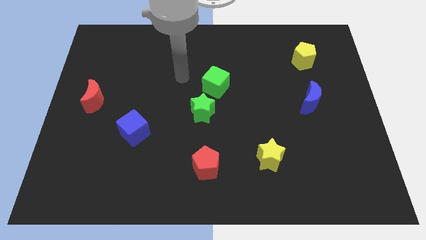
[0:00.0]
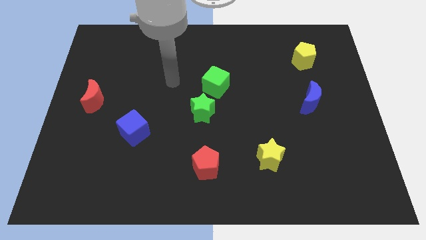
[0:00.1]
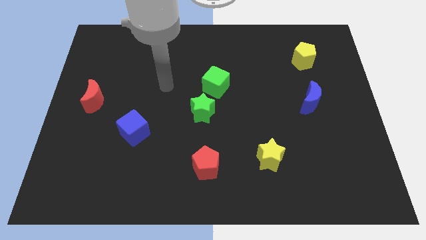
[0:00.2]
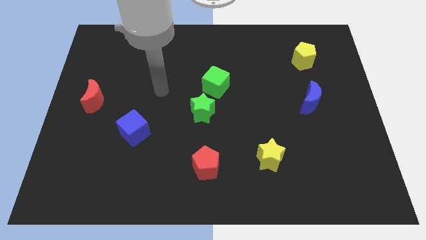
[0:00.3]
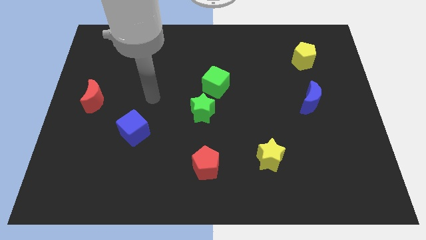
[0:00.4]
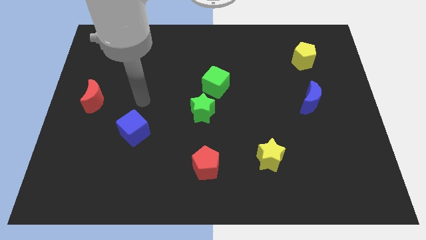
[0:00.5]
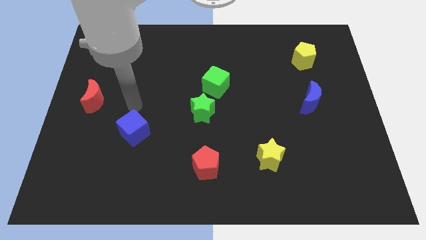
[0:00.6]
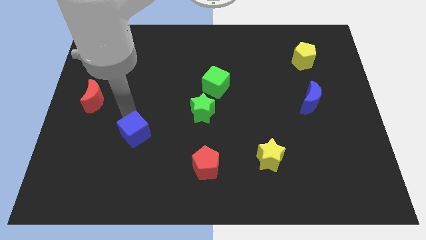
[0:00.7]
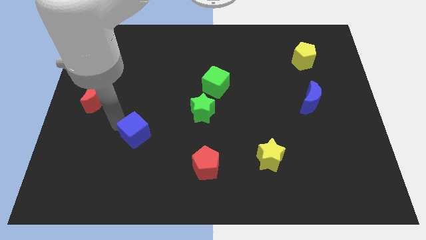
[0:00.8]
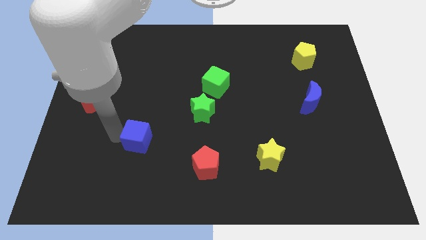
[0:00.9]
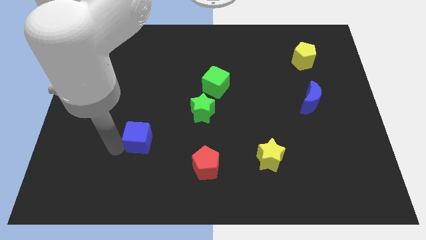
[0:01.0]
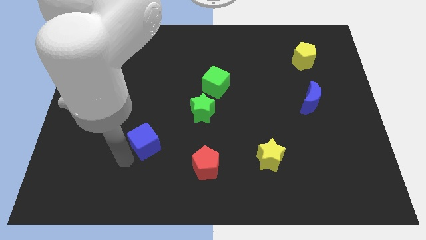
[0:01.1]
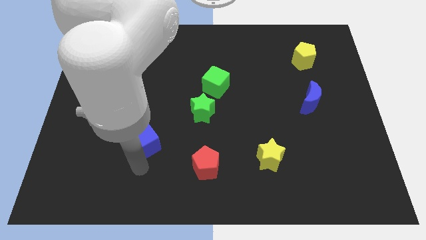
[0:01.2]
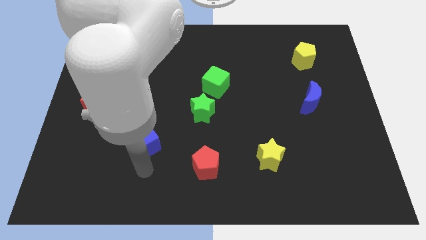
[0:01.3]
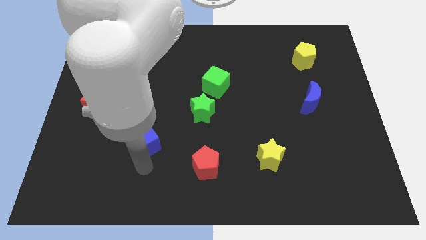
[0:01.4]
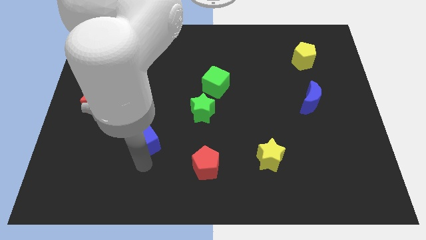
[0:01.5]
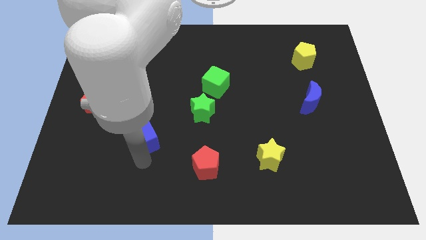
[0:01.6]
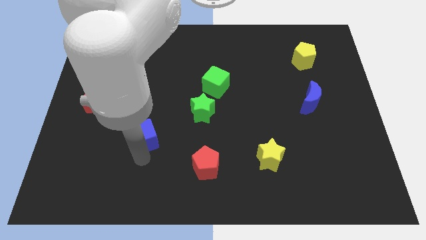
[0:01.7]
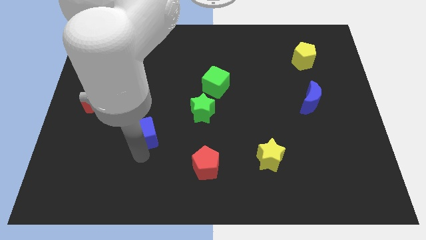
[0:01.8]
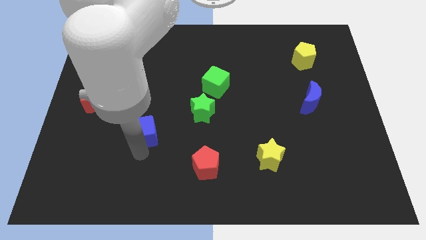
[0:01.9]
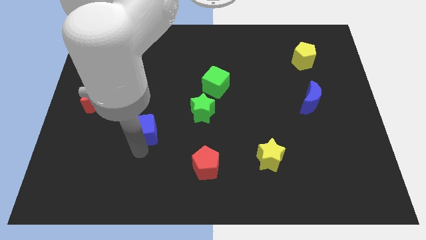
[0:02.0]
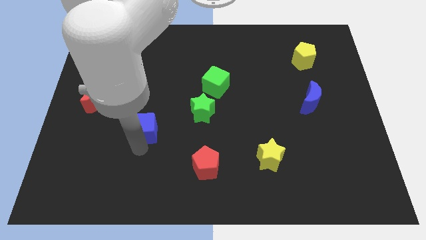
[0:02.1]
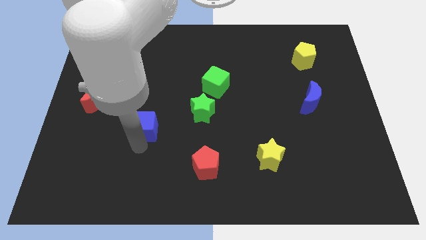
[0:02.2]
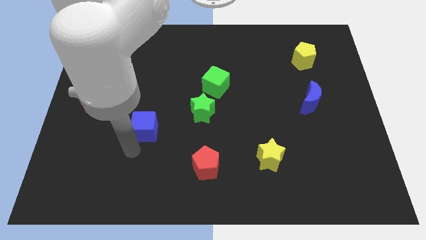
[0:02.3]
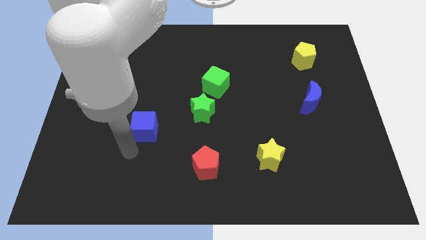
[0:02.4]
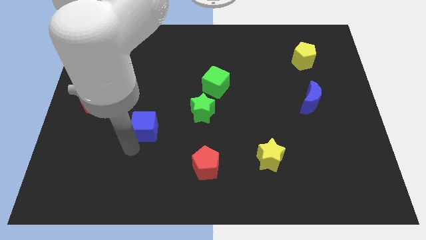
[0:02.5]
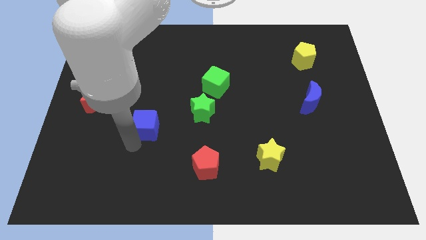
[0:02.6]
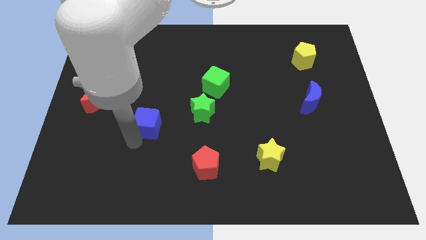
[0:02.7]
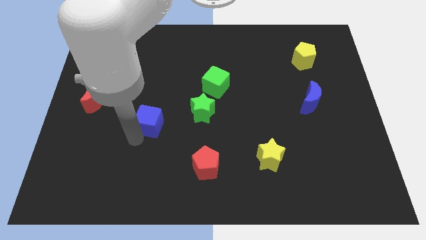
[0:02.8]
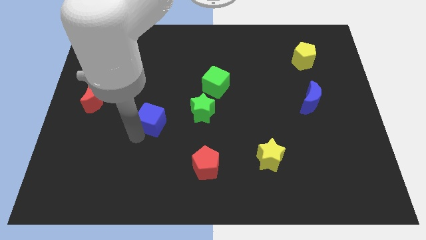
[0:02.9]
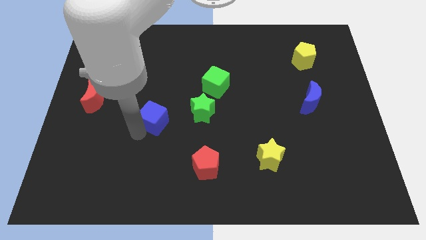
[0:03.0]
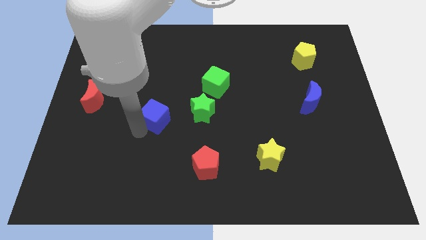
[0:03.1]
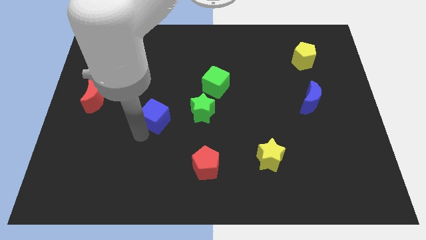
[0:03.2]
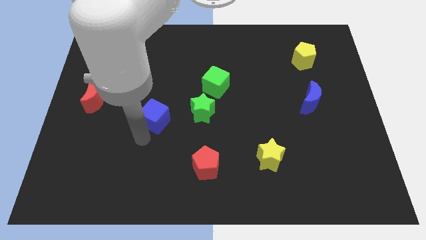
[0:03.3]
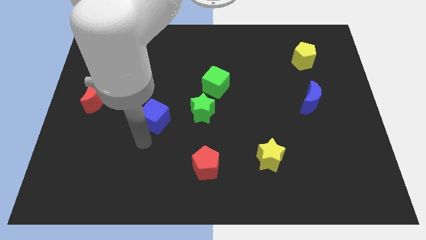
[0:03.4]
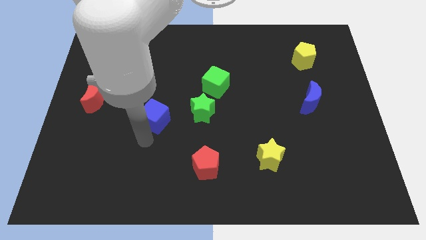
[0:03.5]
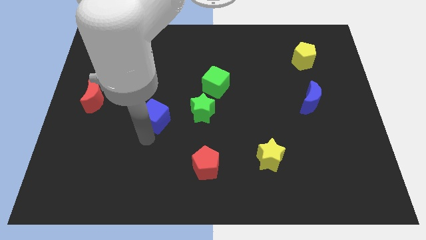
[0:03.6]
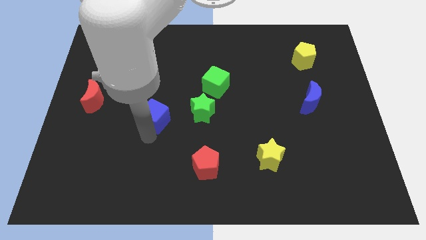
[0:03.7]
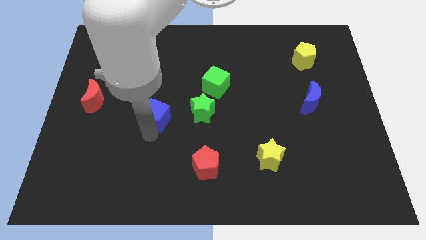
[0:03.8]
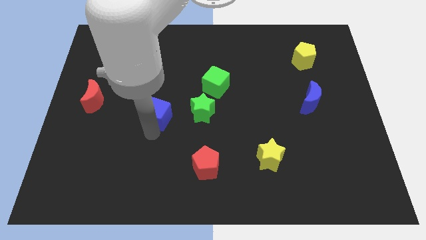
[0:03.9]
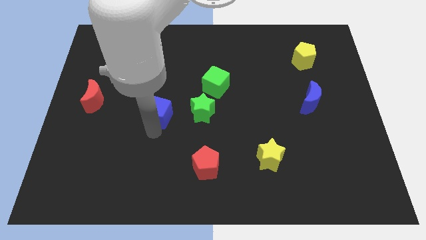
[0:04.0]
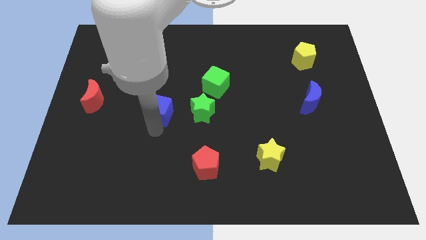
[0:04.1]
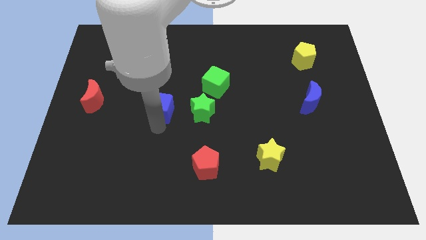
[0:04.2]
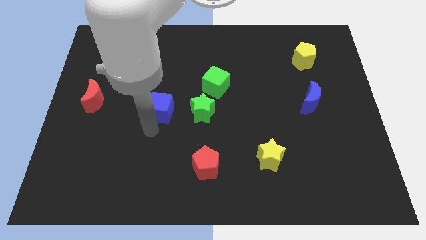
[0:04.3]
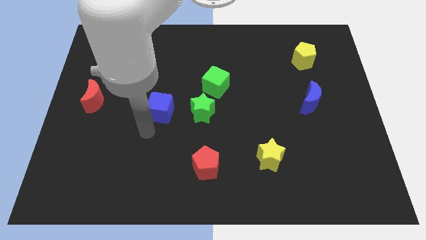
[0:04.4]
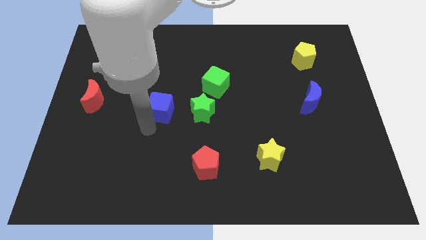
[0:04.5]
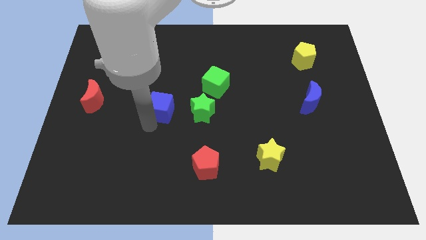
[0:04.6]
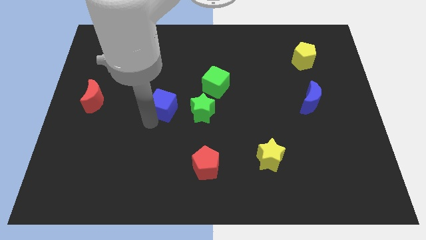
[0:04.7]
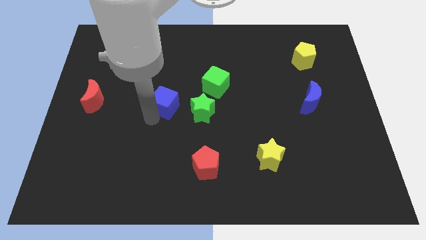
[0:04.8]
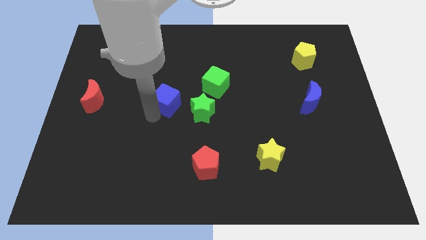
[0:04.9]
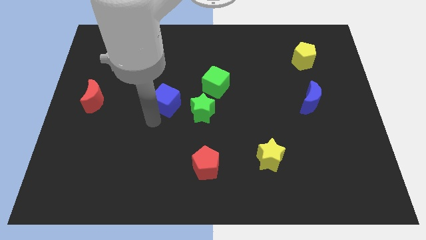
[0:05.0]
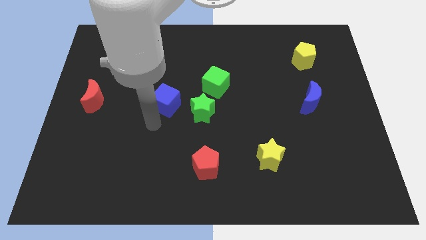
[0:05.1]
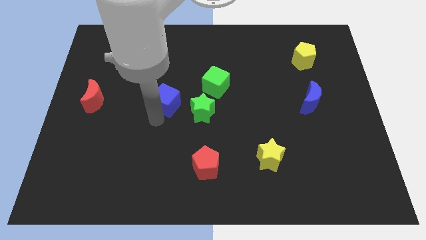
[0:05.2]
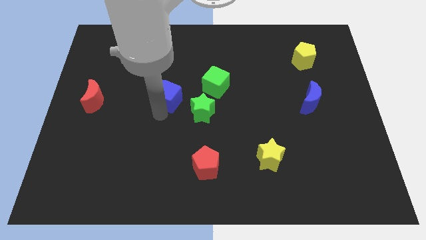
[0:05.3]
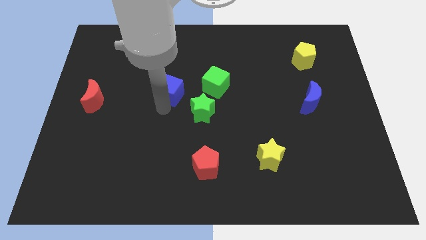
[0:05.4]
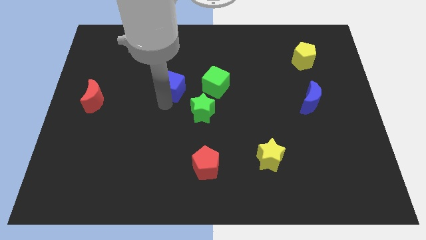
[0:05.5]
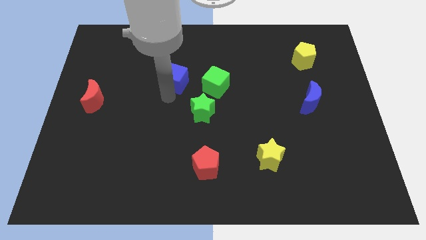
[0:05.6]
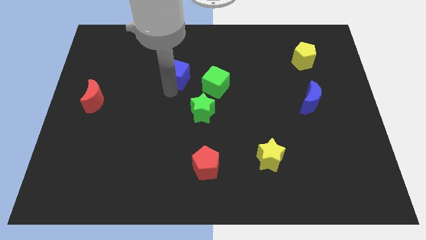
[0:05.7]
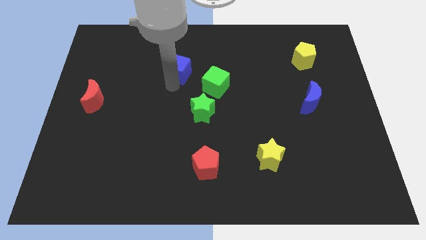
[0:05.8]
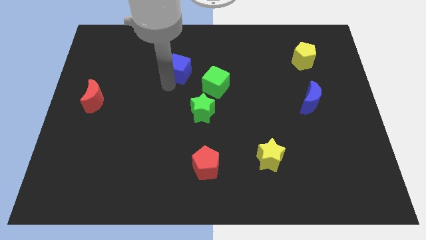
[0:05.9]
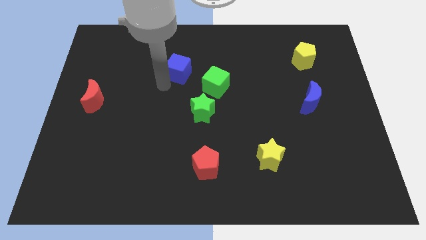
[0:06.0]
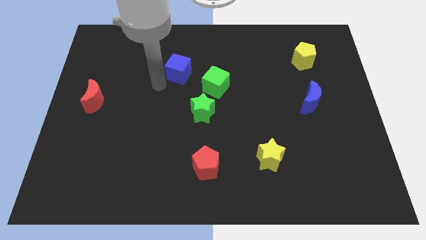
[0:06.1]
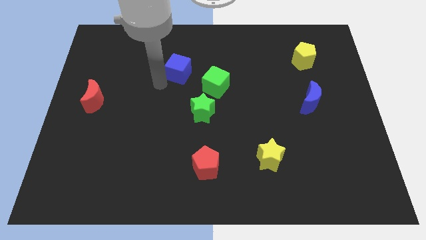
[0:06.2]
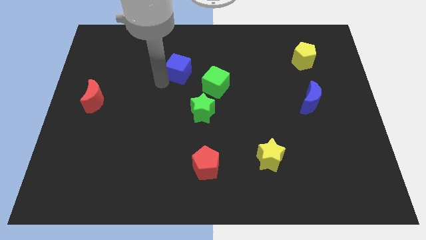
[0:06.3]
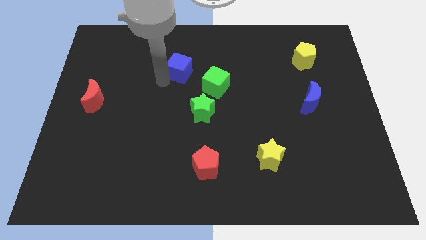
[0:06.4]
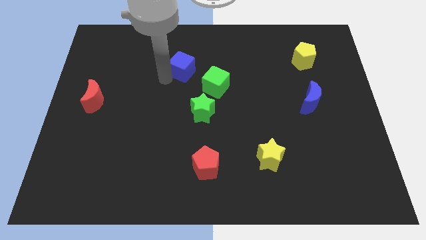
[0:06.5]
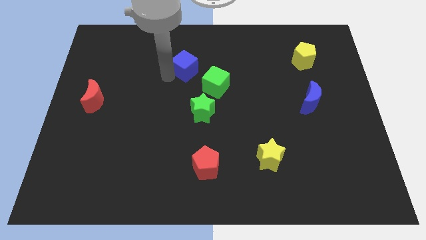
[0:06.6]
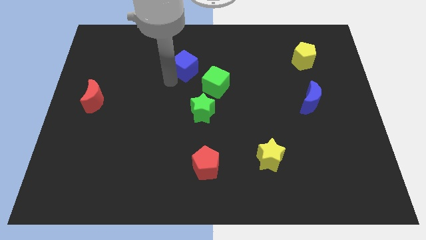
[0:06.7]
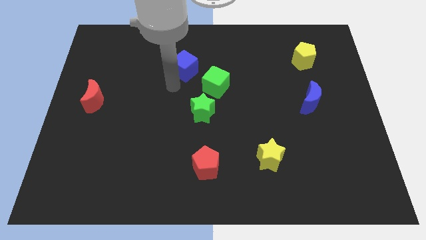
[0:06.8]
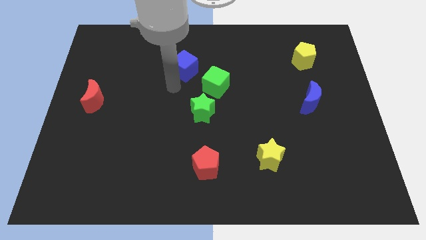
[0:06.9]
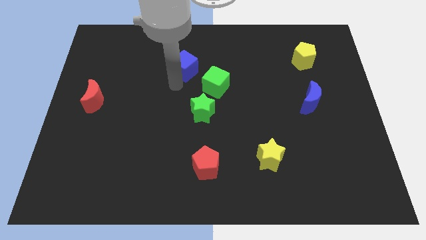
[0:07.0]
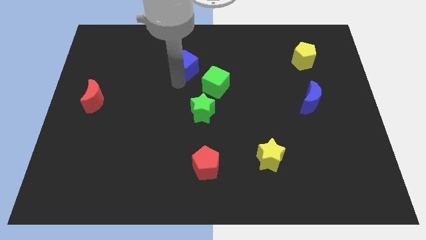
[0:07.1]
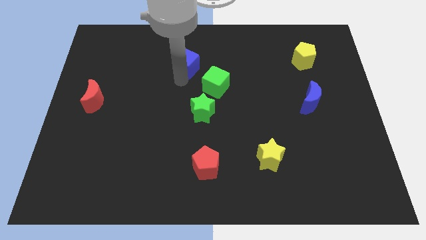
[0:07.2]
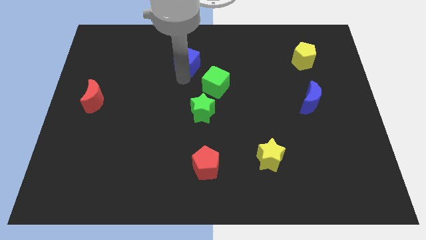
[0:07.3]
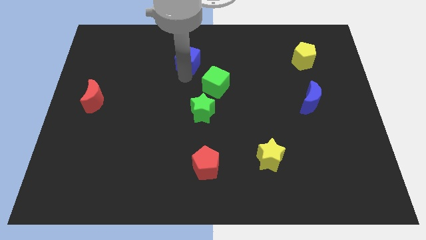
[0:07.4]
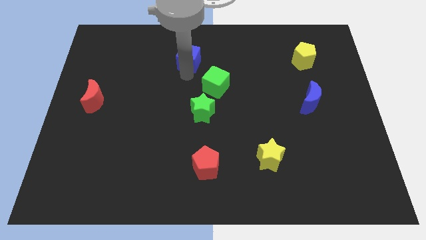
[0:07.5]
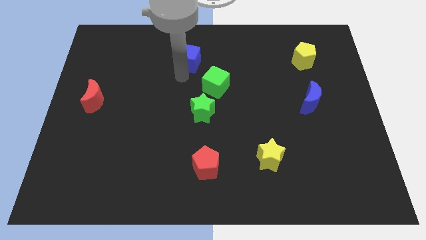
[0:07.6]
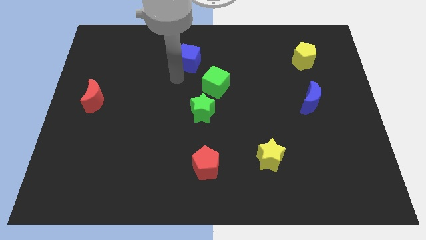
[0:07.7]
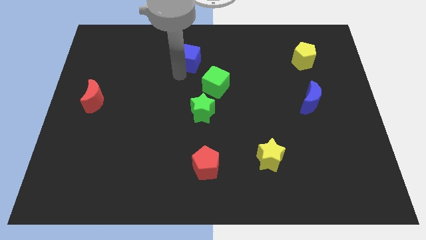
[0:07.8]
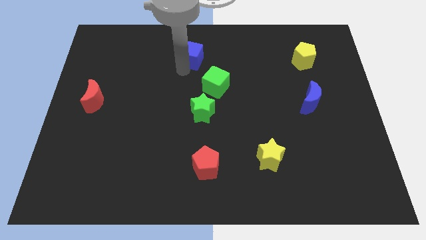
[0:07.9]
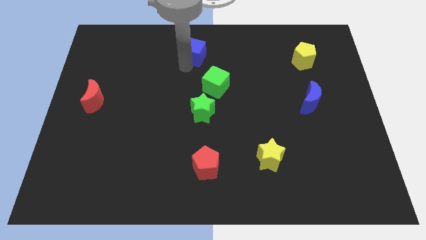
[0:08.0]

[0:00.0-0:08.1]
put the blue cube to the top side
